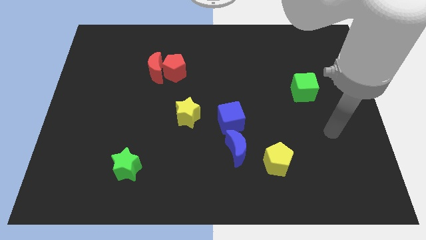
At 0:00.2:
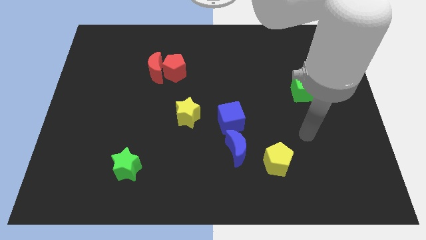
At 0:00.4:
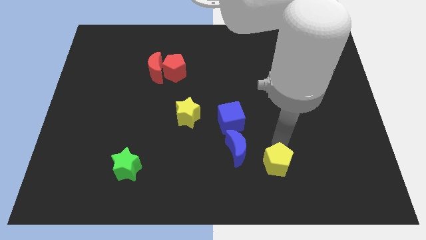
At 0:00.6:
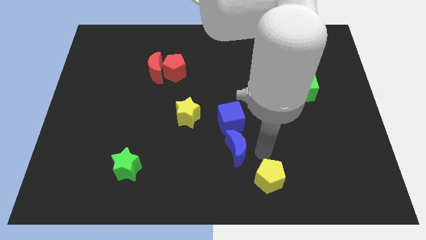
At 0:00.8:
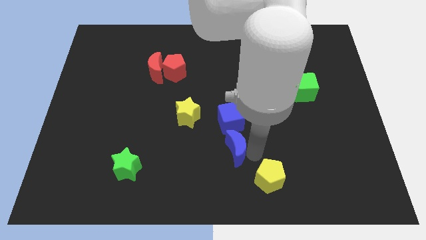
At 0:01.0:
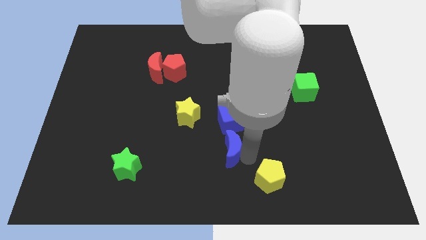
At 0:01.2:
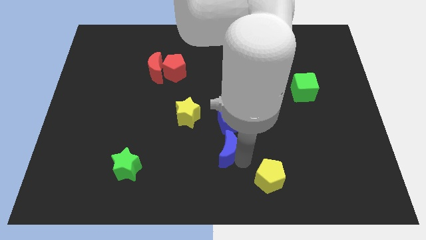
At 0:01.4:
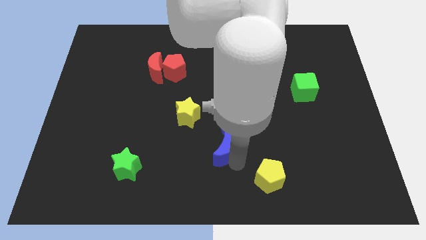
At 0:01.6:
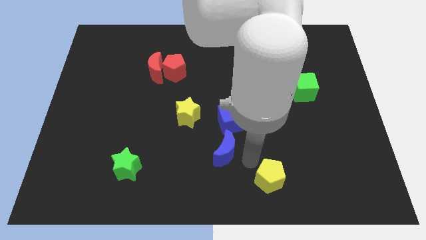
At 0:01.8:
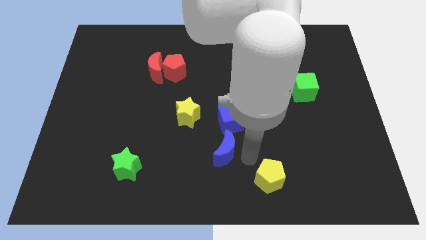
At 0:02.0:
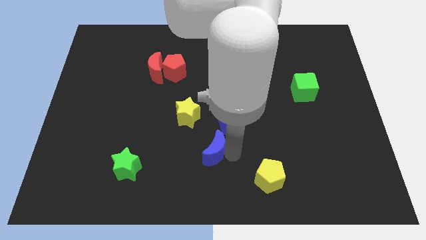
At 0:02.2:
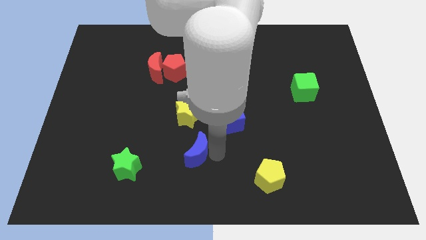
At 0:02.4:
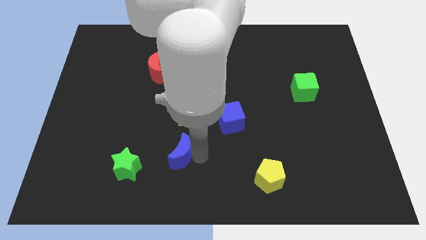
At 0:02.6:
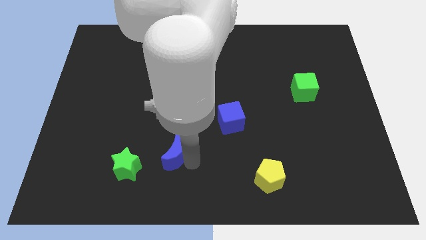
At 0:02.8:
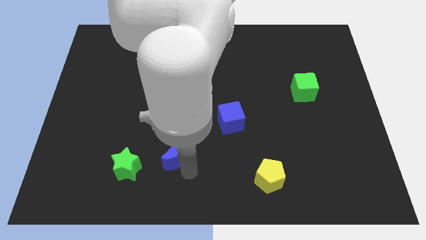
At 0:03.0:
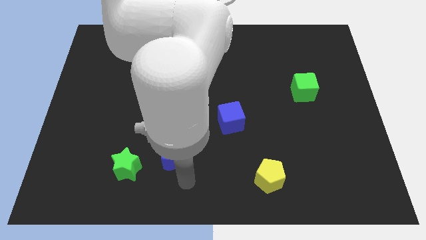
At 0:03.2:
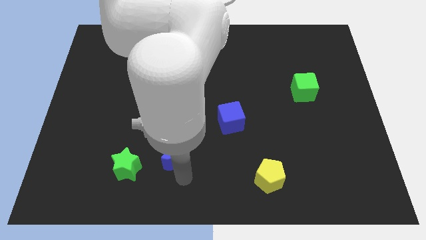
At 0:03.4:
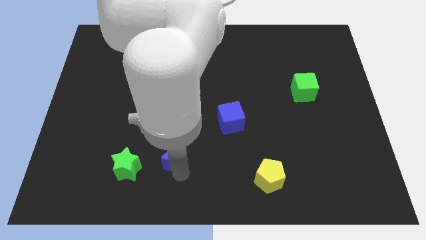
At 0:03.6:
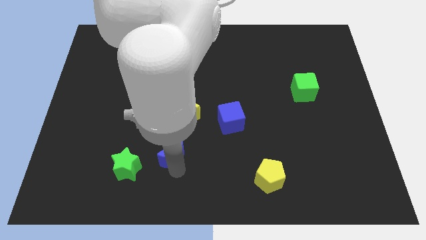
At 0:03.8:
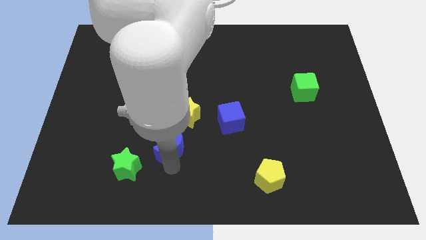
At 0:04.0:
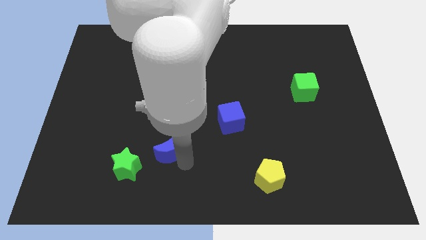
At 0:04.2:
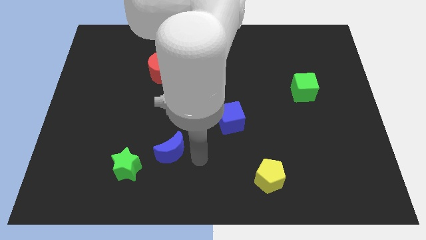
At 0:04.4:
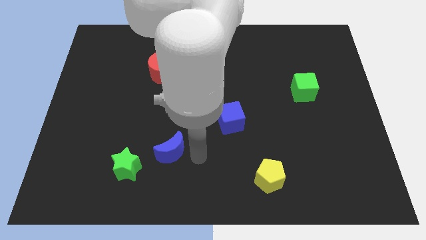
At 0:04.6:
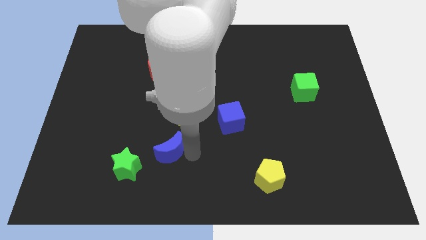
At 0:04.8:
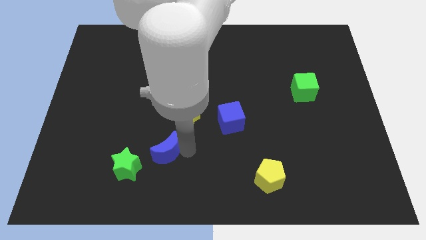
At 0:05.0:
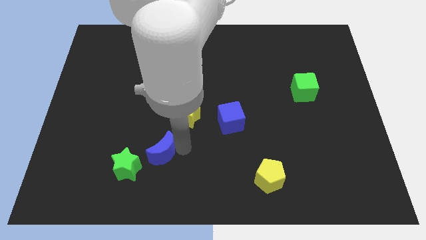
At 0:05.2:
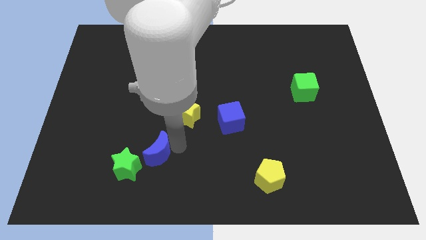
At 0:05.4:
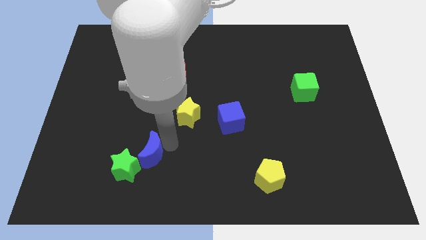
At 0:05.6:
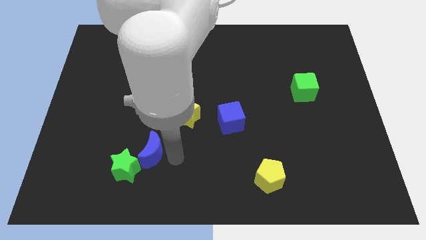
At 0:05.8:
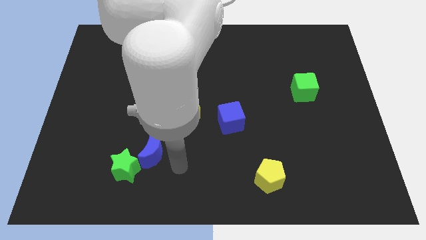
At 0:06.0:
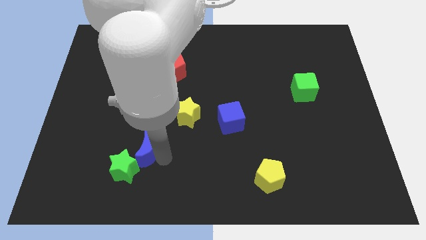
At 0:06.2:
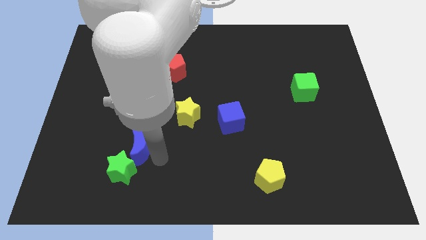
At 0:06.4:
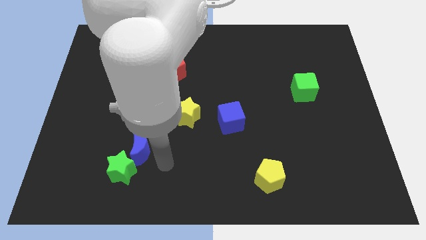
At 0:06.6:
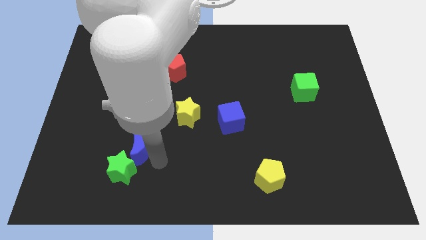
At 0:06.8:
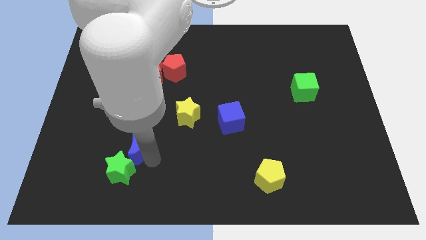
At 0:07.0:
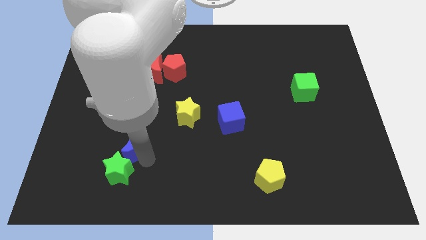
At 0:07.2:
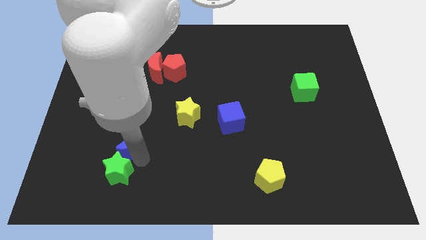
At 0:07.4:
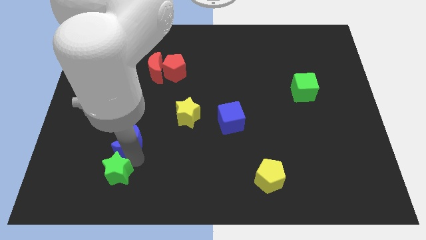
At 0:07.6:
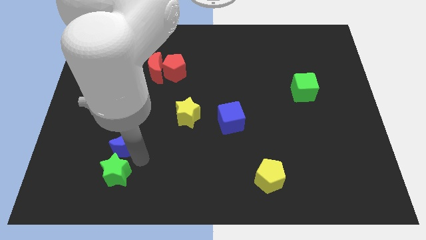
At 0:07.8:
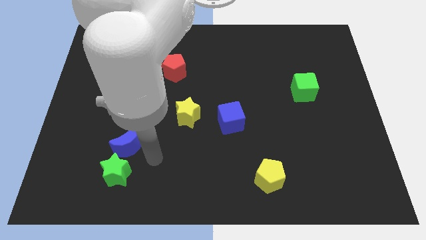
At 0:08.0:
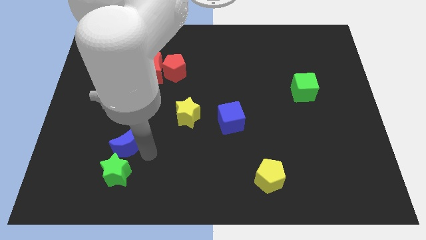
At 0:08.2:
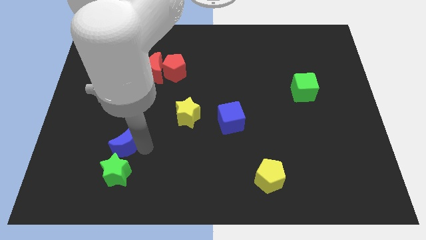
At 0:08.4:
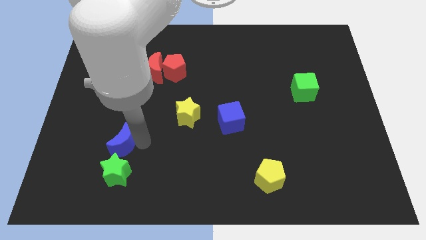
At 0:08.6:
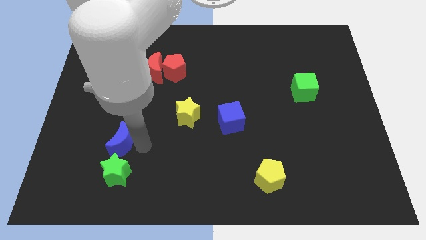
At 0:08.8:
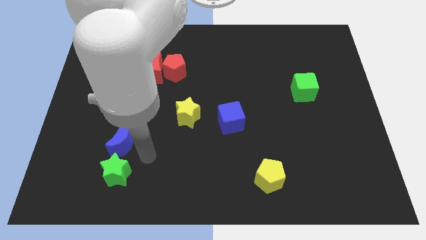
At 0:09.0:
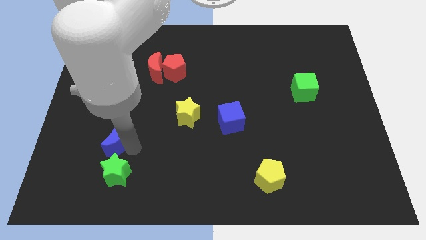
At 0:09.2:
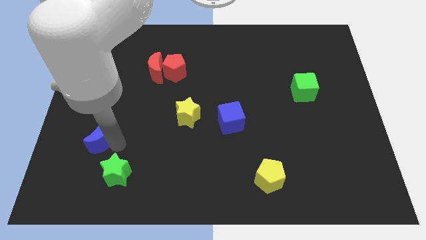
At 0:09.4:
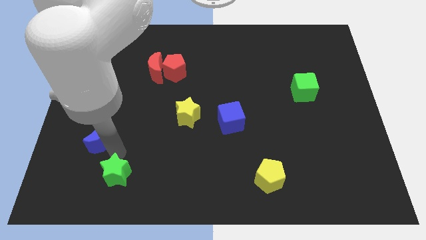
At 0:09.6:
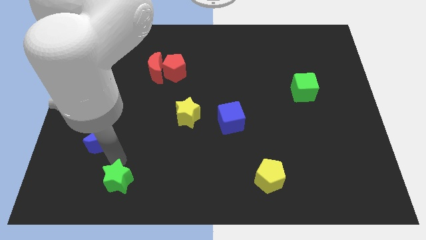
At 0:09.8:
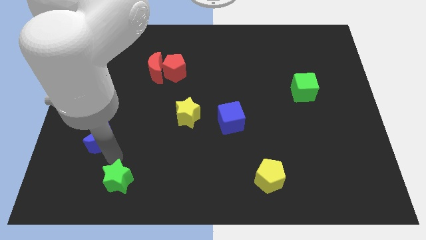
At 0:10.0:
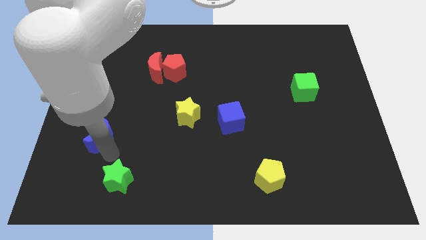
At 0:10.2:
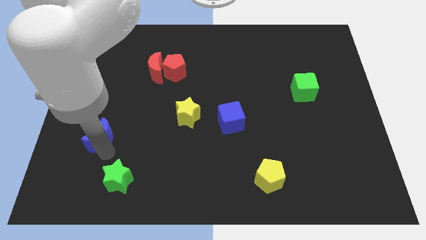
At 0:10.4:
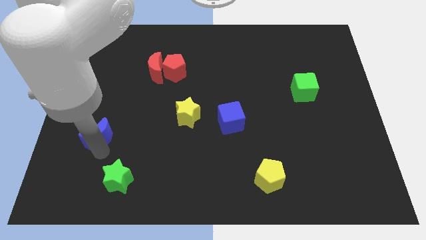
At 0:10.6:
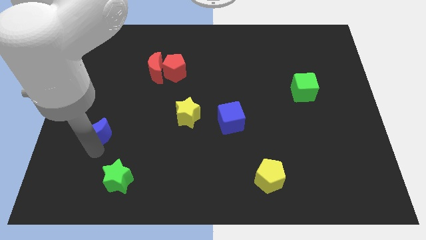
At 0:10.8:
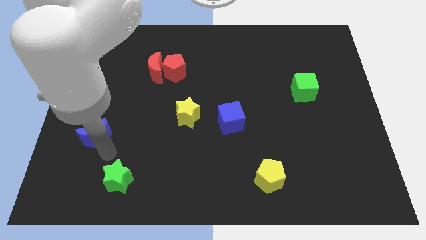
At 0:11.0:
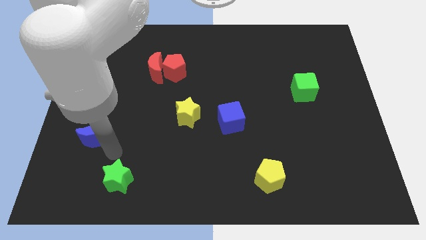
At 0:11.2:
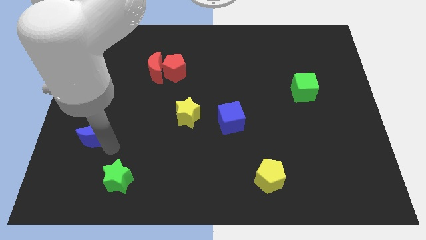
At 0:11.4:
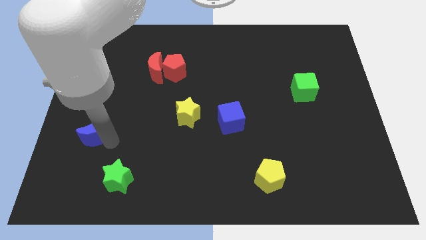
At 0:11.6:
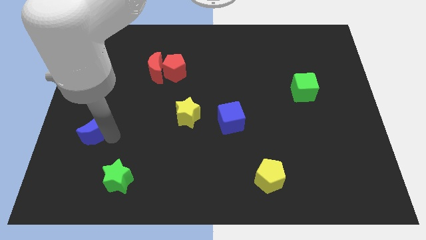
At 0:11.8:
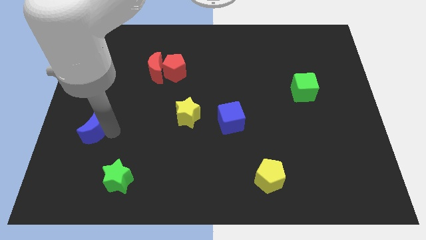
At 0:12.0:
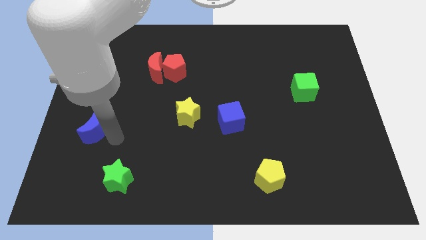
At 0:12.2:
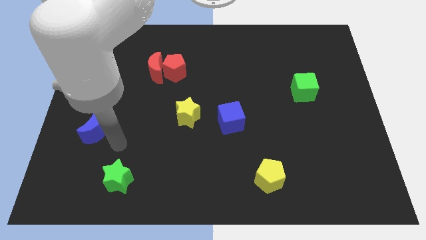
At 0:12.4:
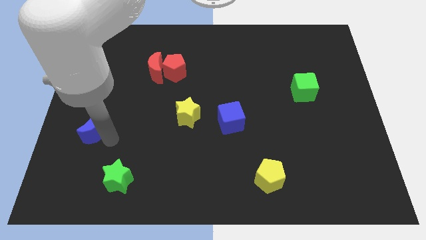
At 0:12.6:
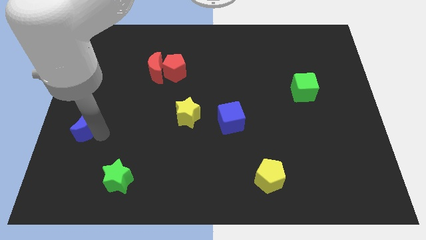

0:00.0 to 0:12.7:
slide the blue moon to the left side of the board
